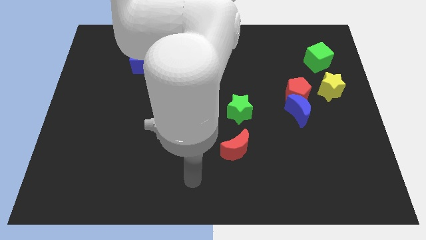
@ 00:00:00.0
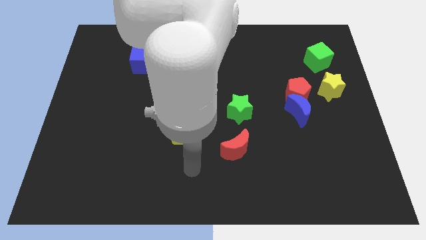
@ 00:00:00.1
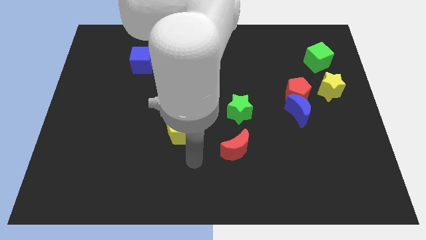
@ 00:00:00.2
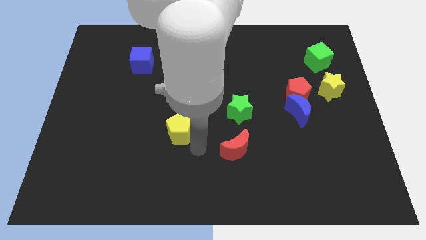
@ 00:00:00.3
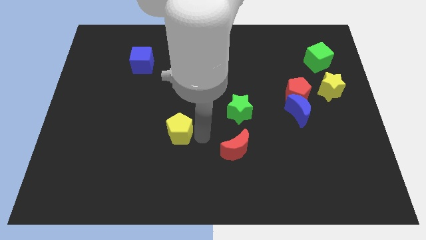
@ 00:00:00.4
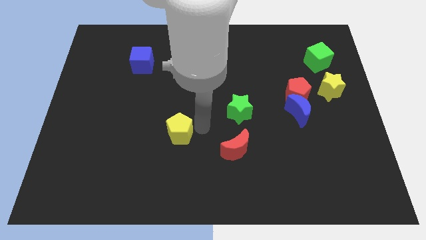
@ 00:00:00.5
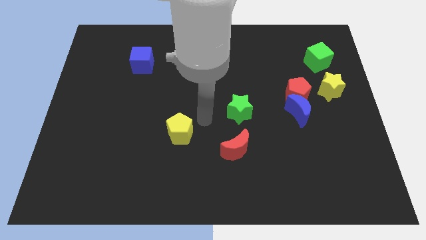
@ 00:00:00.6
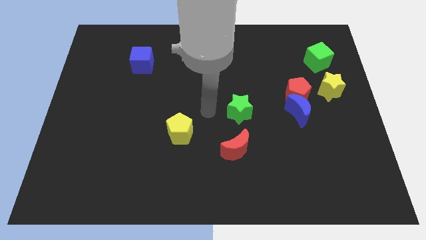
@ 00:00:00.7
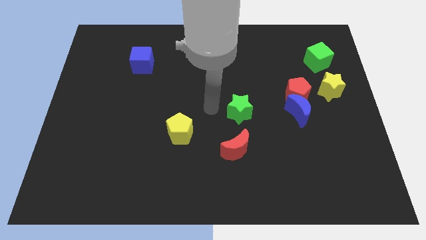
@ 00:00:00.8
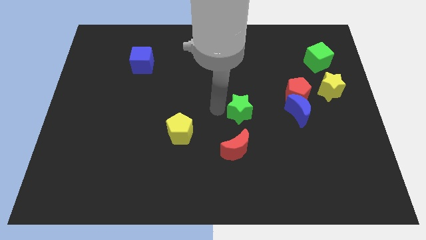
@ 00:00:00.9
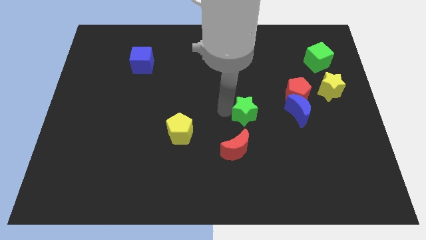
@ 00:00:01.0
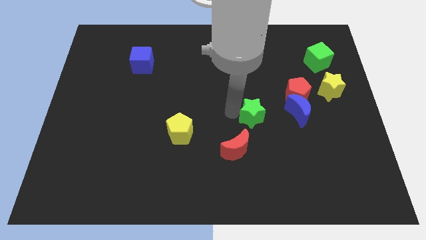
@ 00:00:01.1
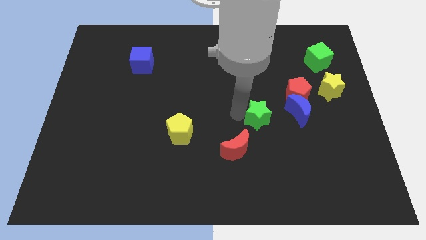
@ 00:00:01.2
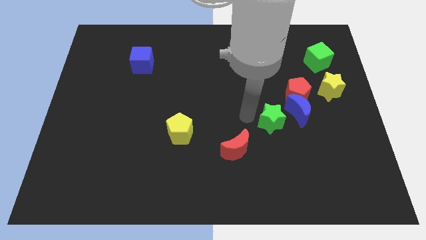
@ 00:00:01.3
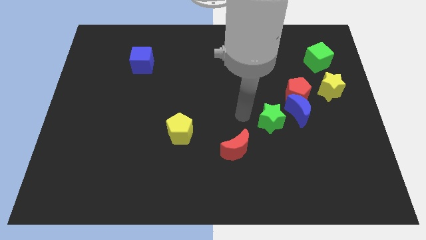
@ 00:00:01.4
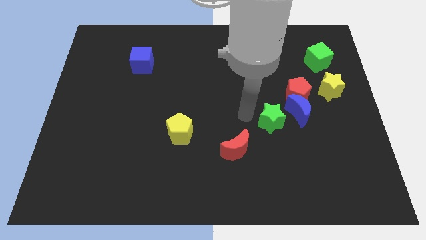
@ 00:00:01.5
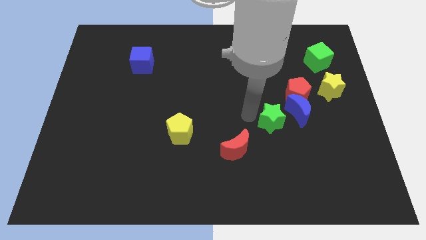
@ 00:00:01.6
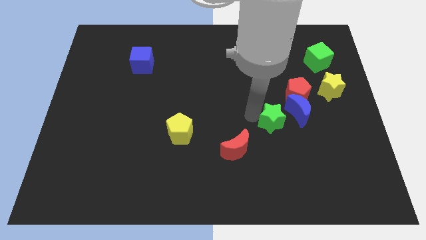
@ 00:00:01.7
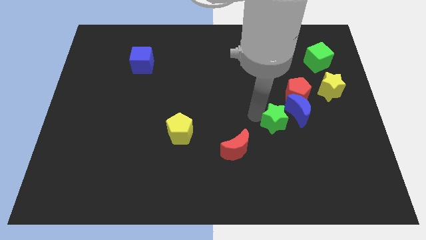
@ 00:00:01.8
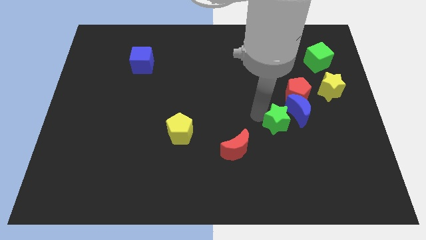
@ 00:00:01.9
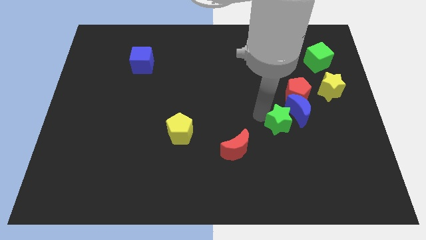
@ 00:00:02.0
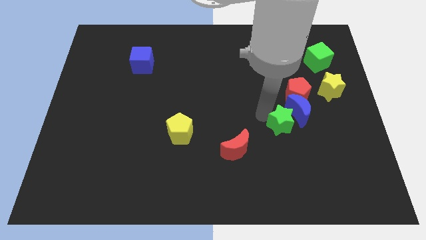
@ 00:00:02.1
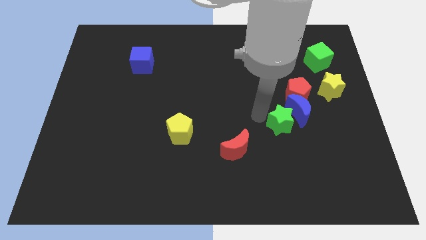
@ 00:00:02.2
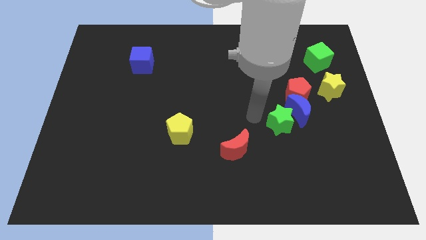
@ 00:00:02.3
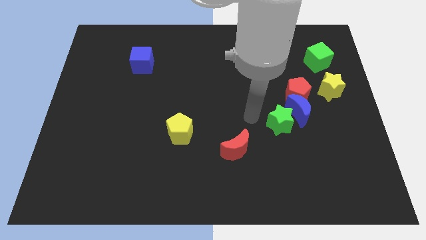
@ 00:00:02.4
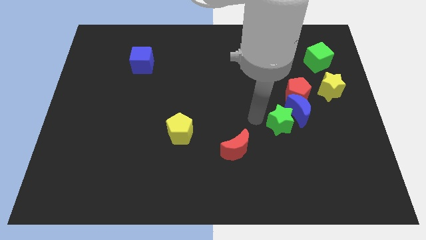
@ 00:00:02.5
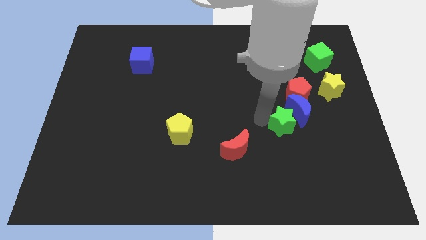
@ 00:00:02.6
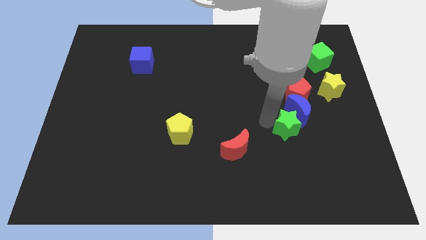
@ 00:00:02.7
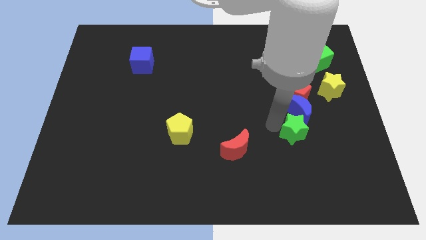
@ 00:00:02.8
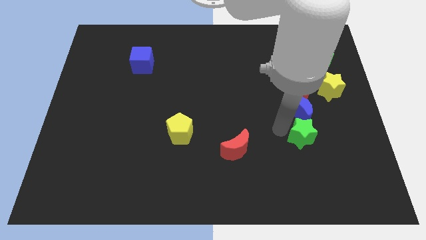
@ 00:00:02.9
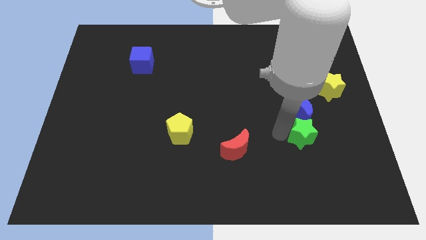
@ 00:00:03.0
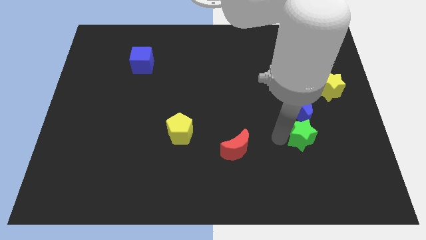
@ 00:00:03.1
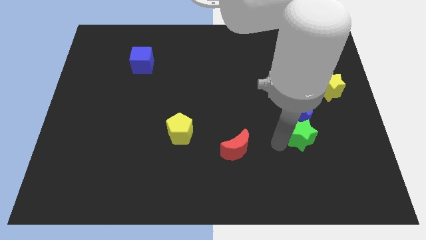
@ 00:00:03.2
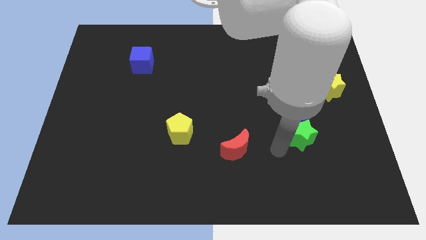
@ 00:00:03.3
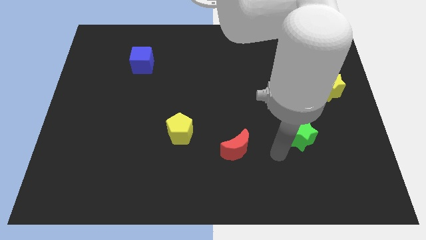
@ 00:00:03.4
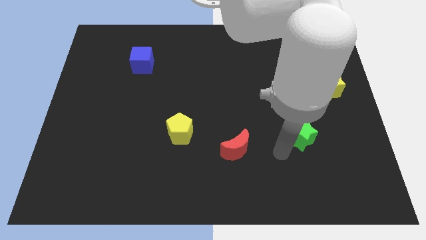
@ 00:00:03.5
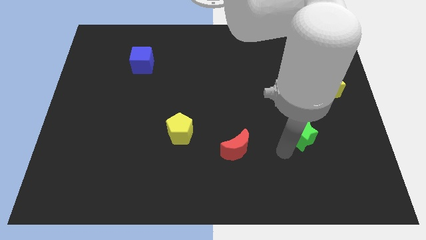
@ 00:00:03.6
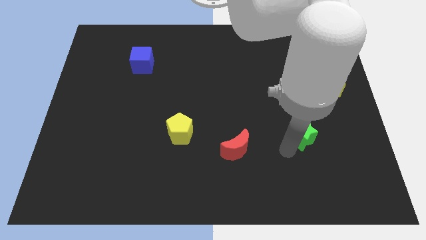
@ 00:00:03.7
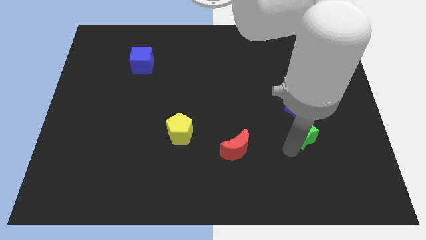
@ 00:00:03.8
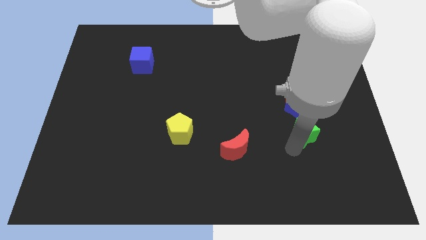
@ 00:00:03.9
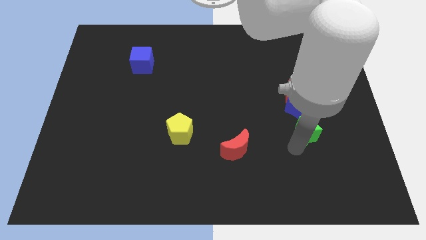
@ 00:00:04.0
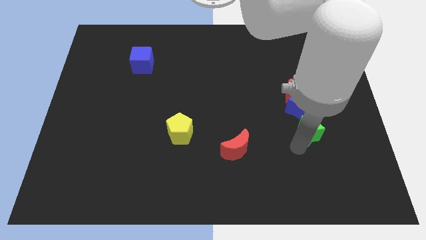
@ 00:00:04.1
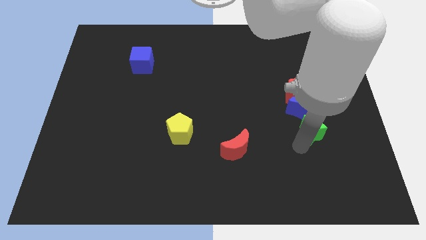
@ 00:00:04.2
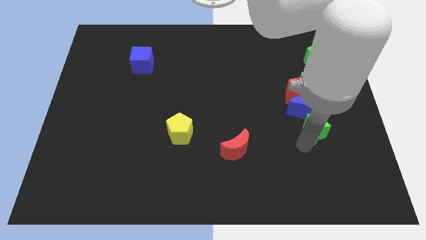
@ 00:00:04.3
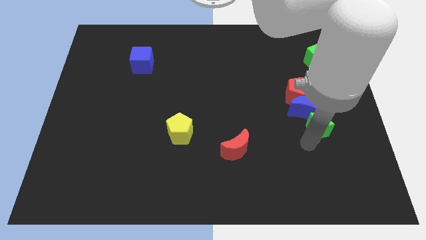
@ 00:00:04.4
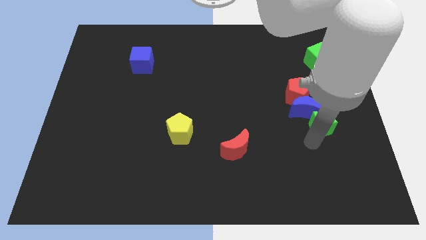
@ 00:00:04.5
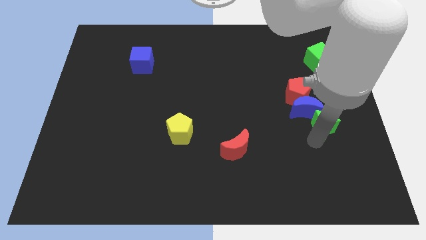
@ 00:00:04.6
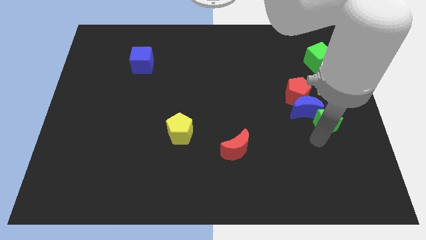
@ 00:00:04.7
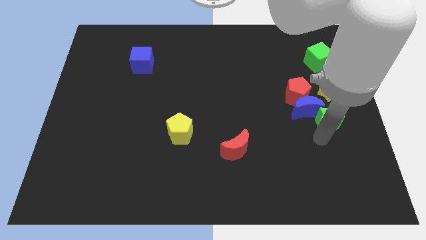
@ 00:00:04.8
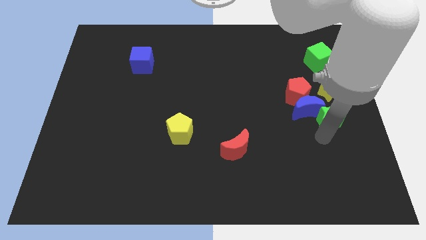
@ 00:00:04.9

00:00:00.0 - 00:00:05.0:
move the green star to the center right

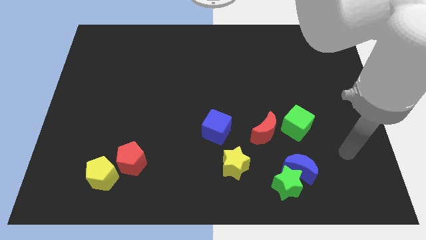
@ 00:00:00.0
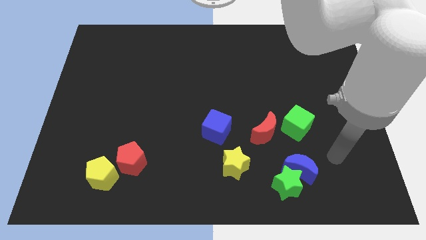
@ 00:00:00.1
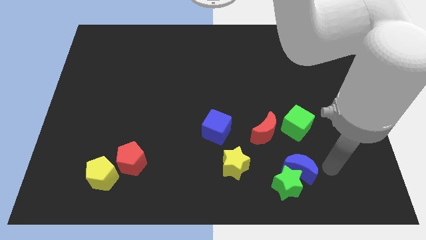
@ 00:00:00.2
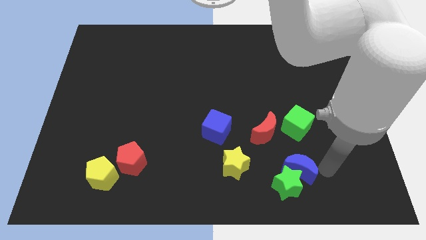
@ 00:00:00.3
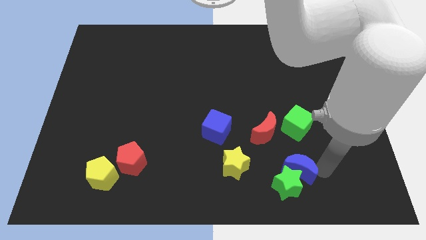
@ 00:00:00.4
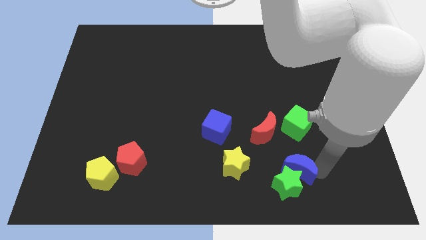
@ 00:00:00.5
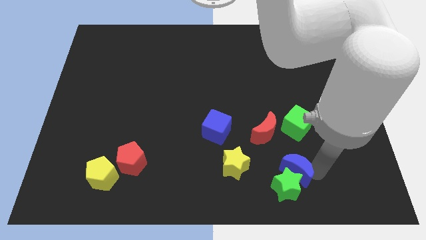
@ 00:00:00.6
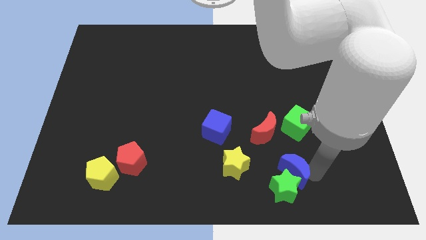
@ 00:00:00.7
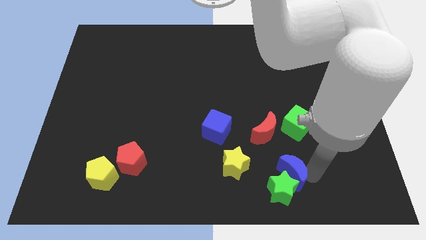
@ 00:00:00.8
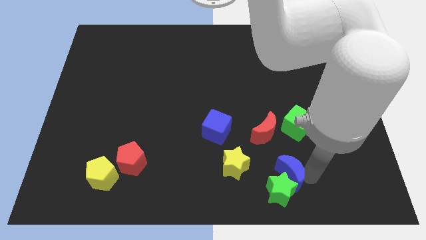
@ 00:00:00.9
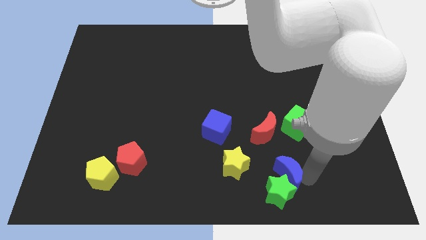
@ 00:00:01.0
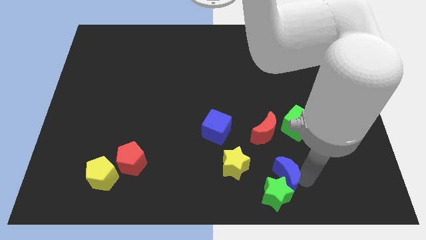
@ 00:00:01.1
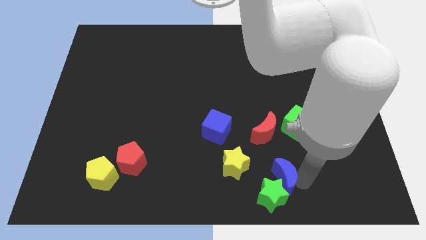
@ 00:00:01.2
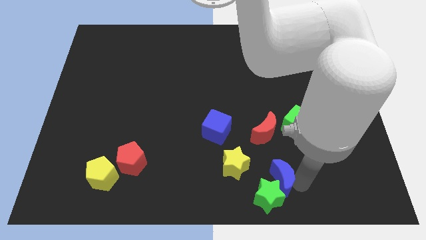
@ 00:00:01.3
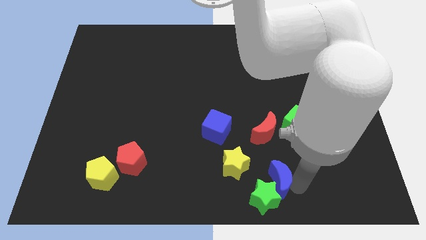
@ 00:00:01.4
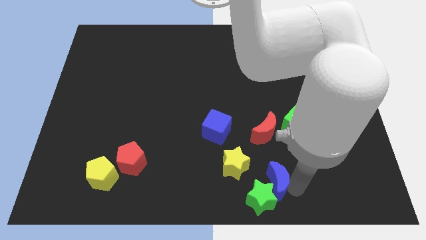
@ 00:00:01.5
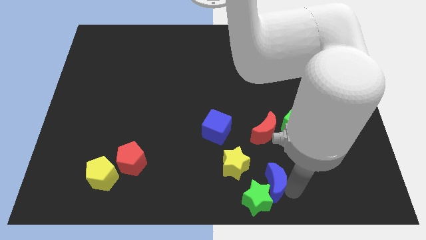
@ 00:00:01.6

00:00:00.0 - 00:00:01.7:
slide the blue moon to the bottom
